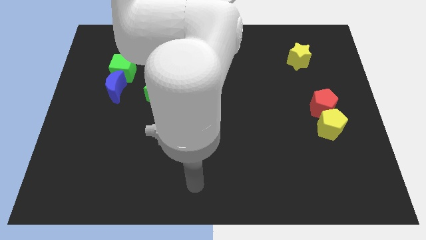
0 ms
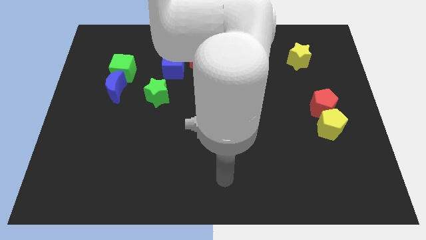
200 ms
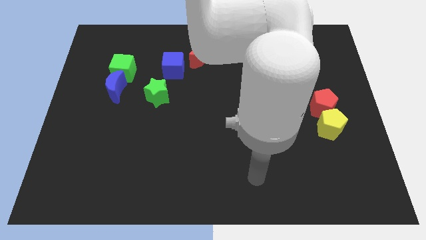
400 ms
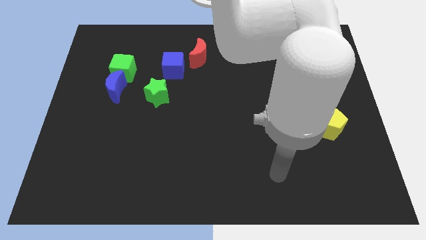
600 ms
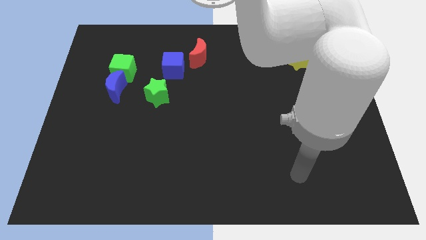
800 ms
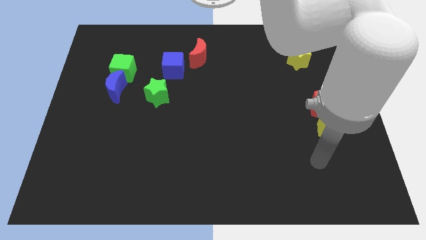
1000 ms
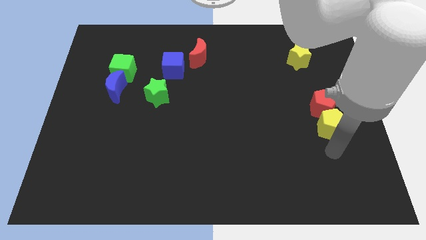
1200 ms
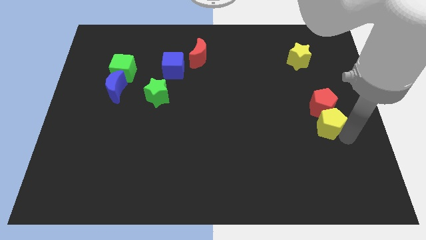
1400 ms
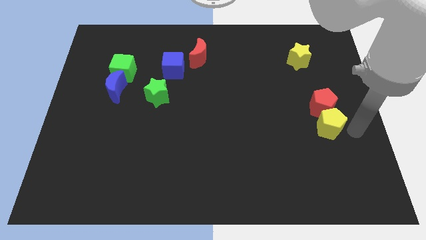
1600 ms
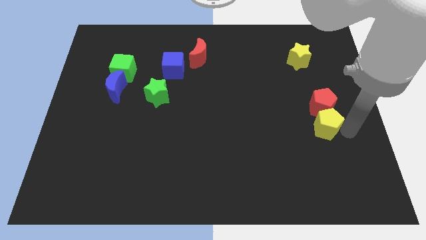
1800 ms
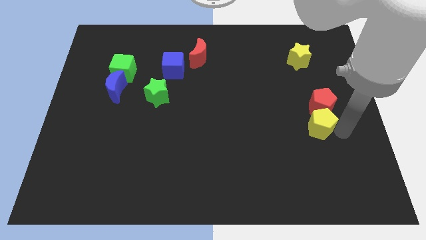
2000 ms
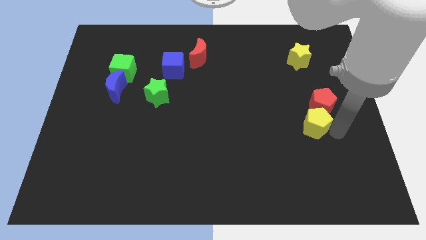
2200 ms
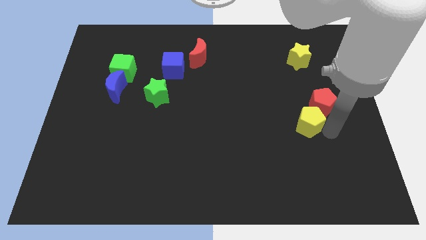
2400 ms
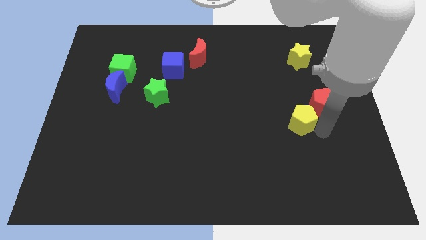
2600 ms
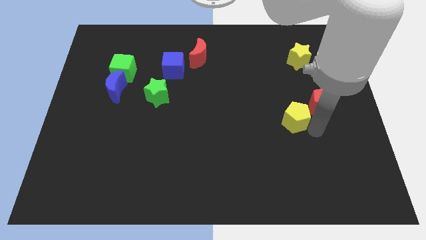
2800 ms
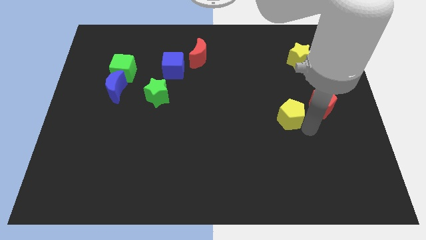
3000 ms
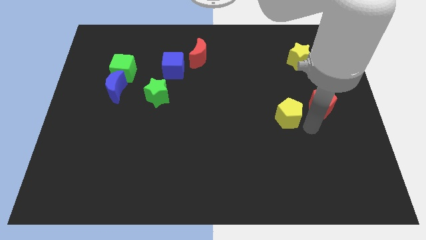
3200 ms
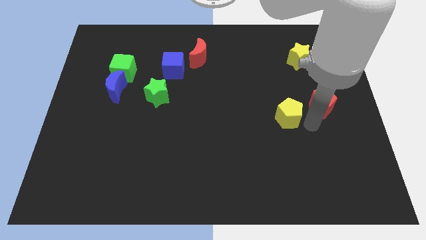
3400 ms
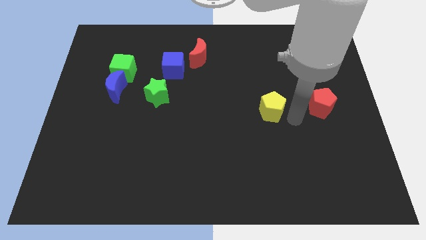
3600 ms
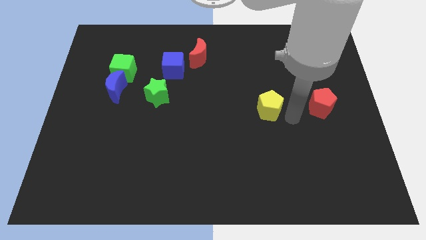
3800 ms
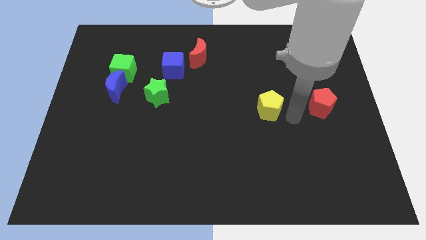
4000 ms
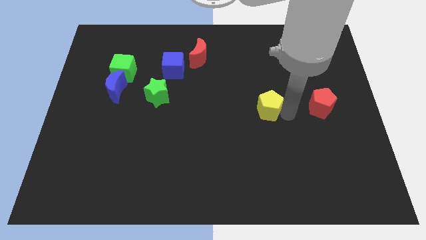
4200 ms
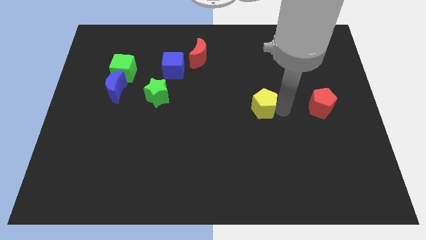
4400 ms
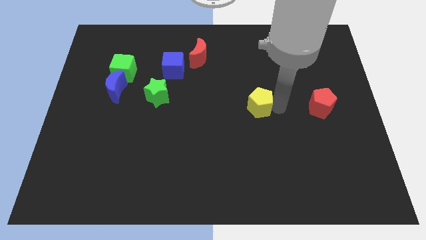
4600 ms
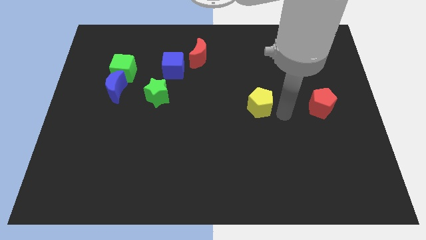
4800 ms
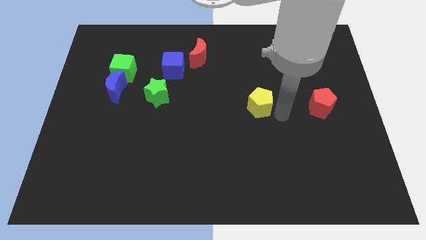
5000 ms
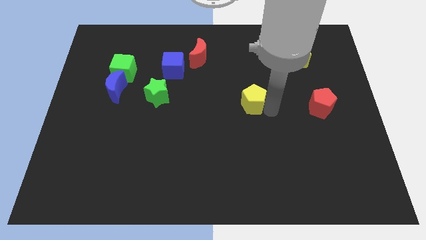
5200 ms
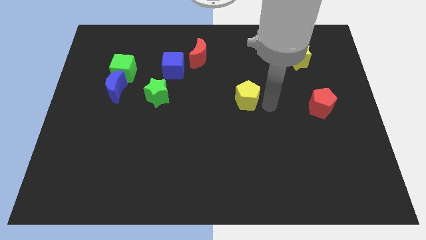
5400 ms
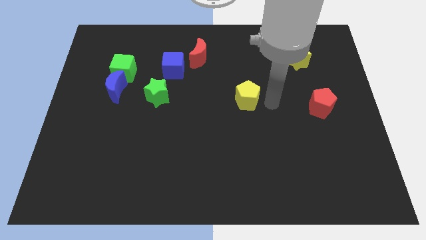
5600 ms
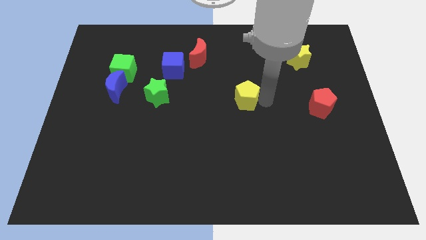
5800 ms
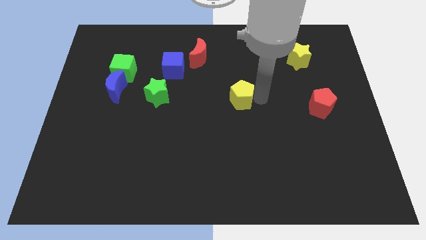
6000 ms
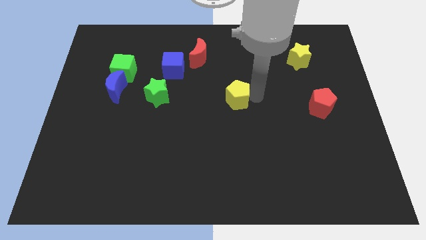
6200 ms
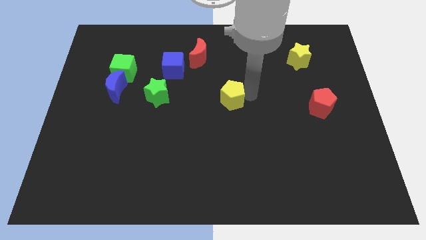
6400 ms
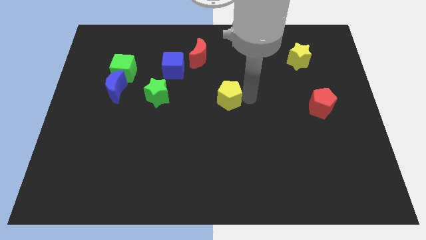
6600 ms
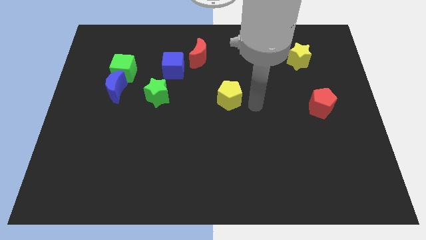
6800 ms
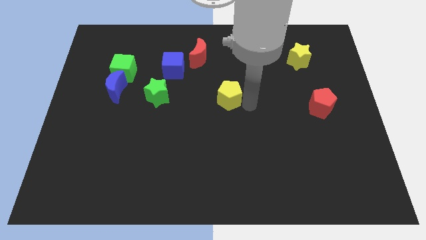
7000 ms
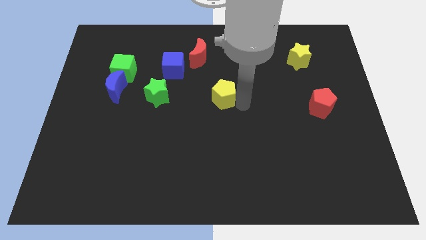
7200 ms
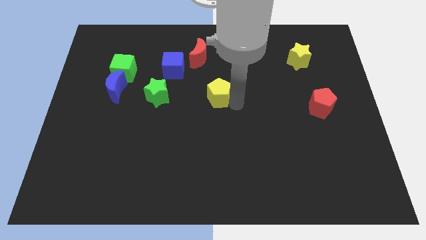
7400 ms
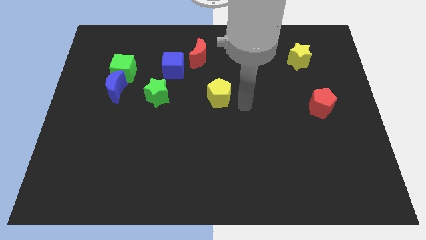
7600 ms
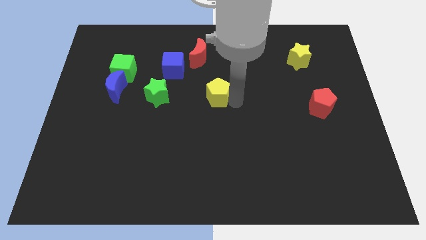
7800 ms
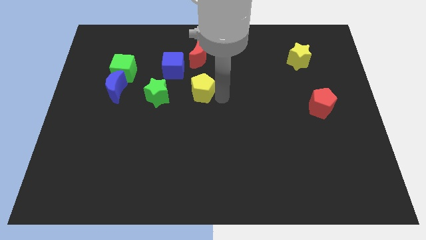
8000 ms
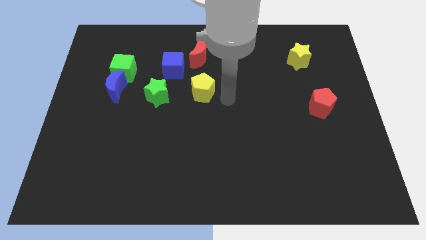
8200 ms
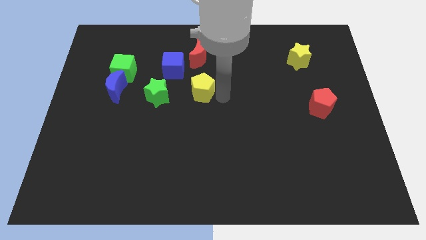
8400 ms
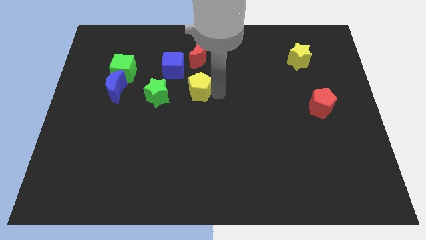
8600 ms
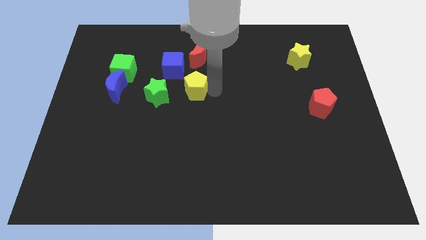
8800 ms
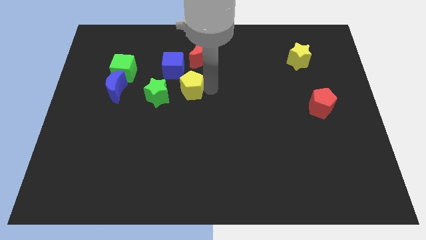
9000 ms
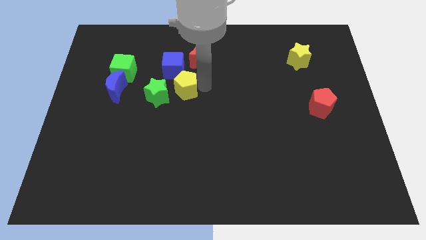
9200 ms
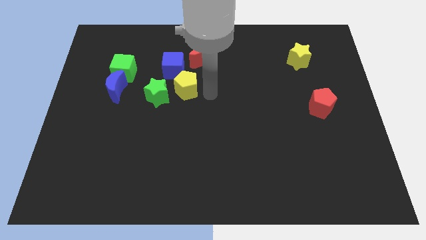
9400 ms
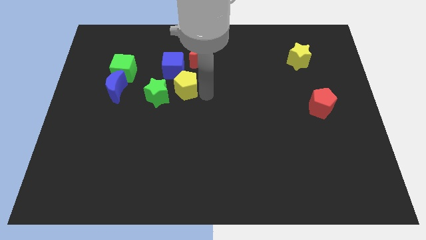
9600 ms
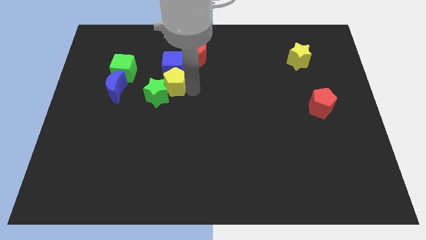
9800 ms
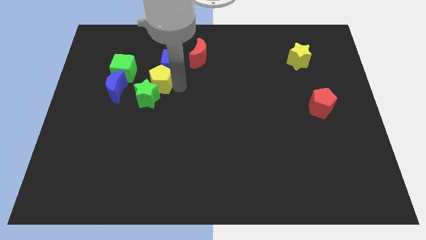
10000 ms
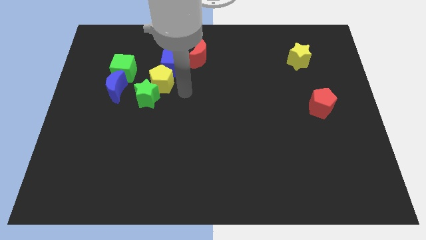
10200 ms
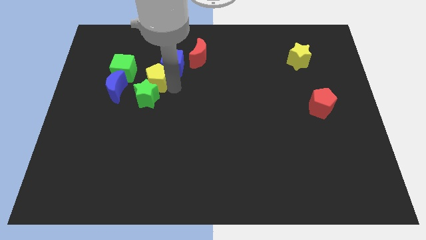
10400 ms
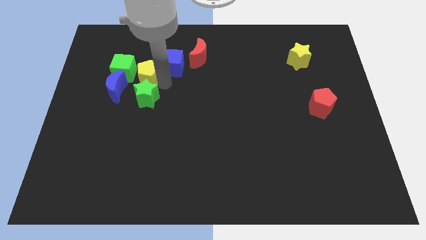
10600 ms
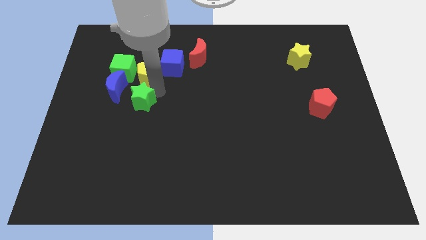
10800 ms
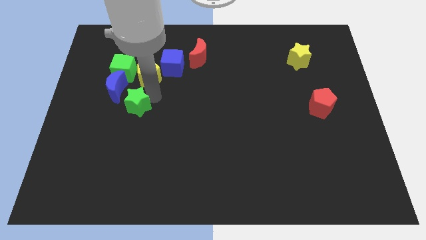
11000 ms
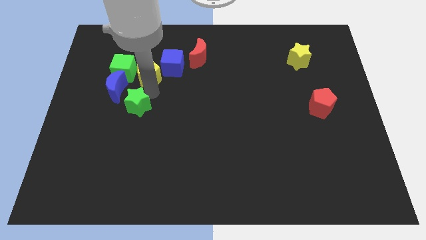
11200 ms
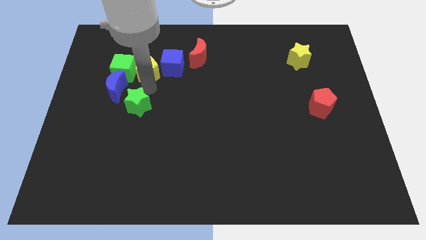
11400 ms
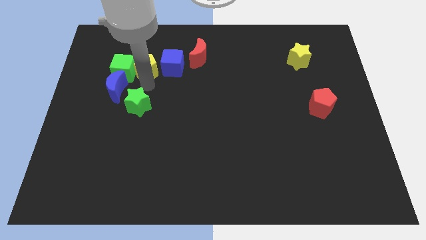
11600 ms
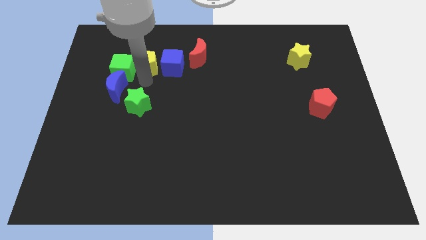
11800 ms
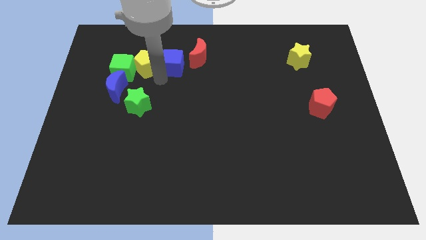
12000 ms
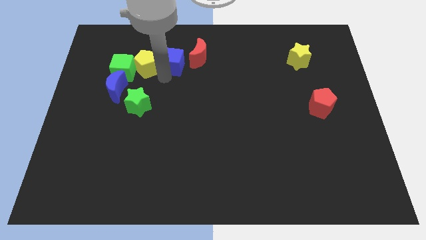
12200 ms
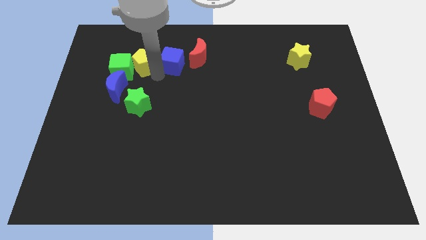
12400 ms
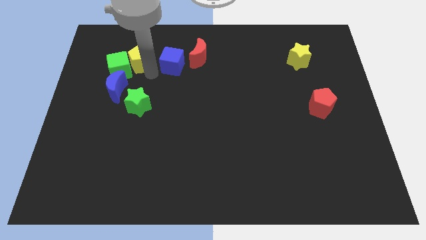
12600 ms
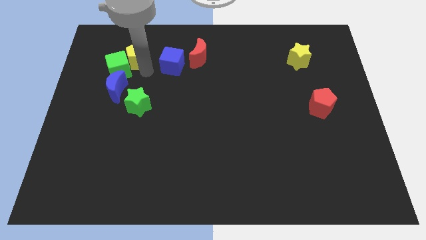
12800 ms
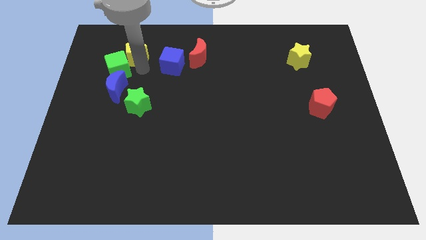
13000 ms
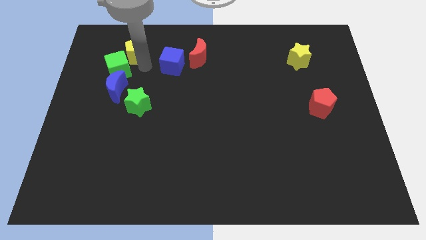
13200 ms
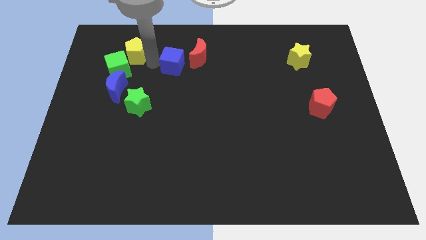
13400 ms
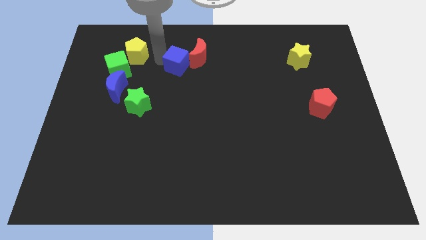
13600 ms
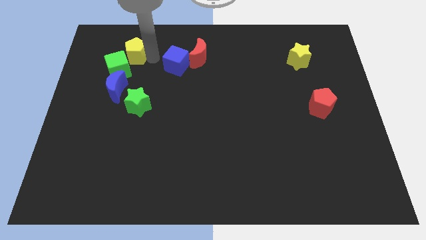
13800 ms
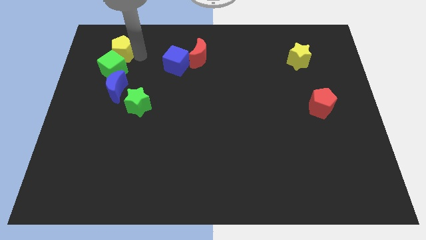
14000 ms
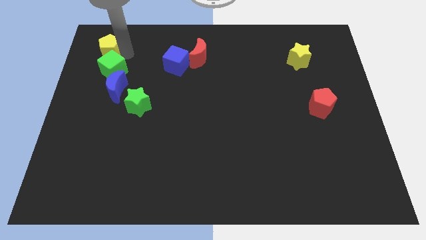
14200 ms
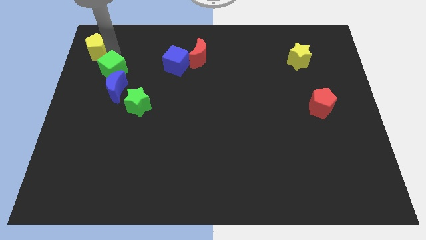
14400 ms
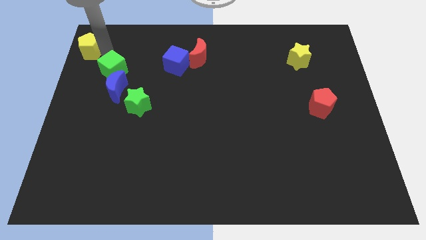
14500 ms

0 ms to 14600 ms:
move the yellow pentagon to the top left corner
